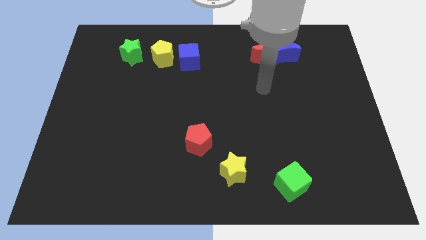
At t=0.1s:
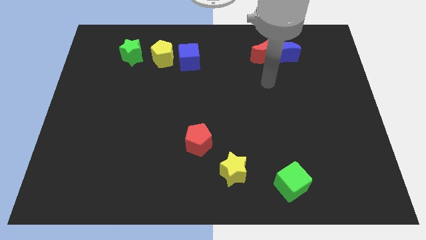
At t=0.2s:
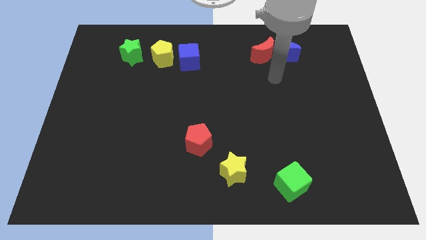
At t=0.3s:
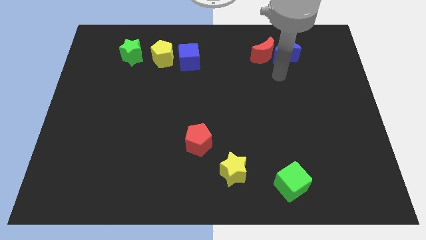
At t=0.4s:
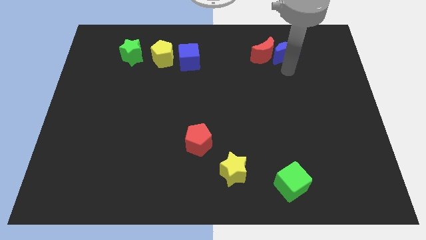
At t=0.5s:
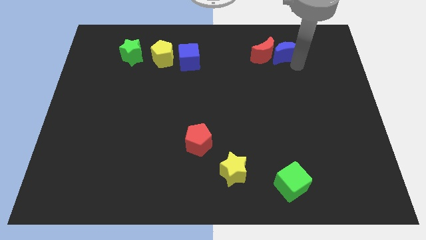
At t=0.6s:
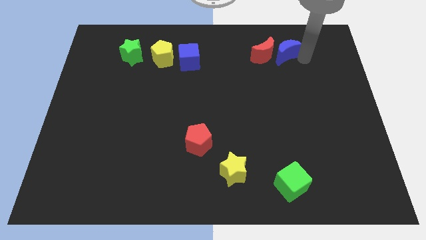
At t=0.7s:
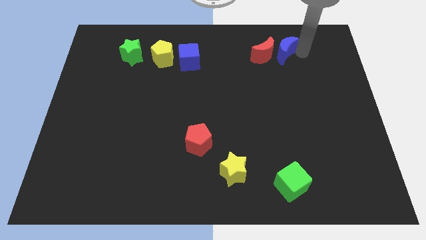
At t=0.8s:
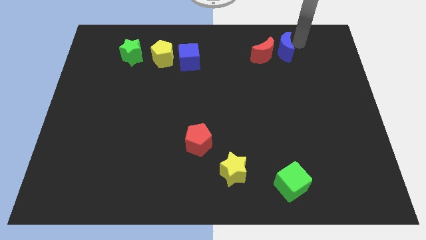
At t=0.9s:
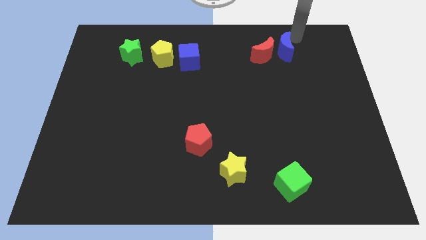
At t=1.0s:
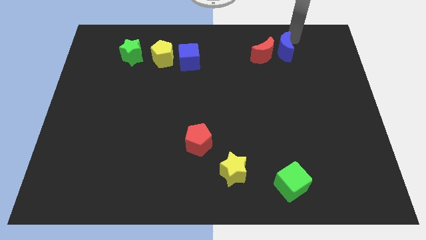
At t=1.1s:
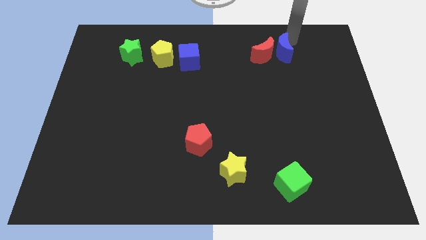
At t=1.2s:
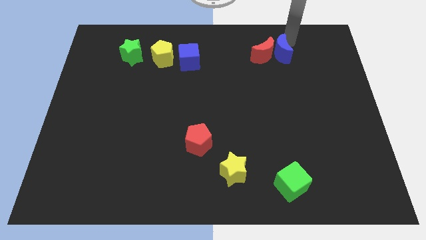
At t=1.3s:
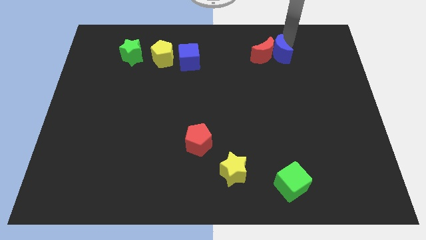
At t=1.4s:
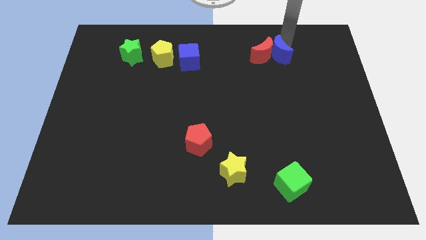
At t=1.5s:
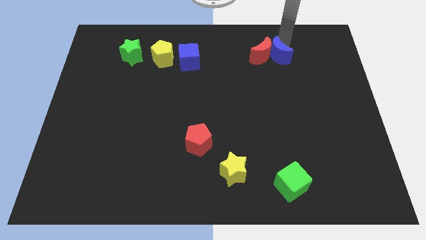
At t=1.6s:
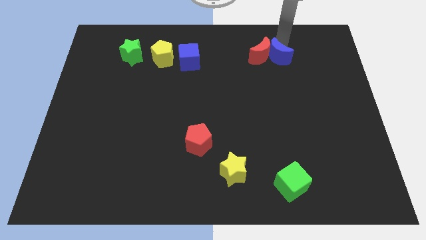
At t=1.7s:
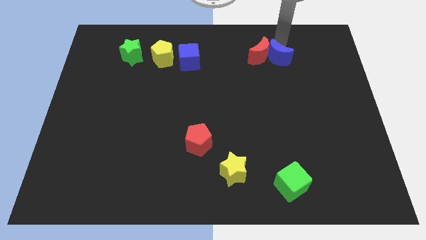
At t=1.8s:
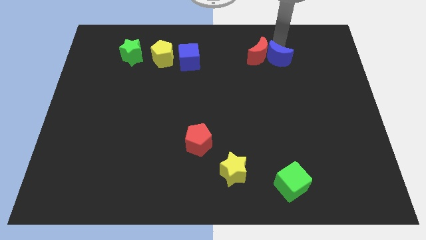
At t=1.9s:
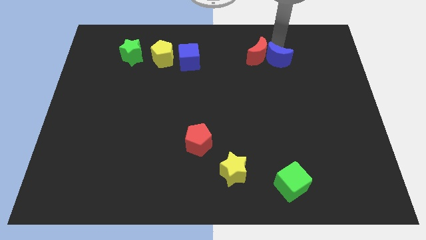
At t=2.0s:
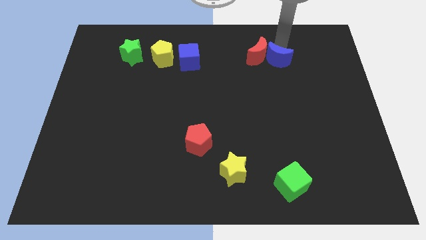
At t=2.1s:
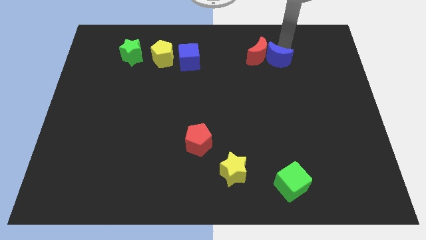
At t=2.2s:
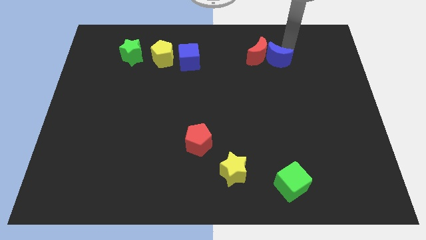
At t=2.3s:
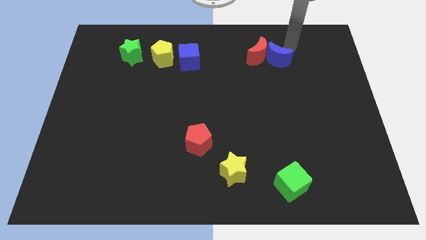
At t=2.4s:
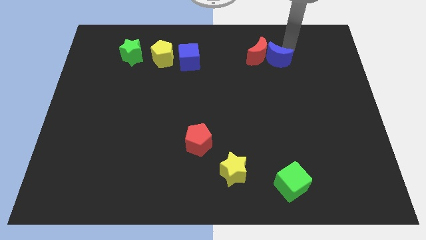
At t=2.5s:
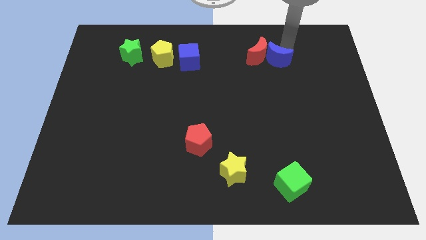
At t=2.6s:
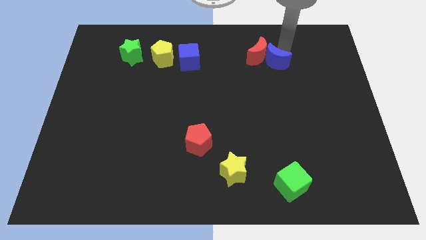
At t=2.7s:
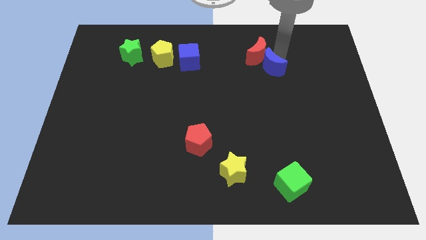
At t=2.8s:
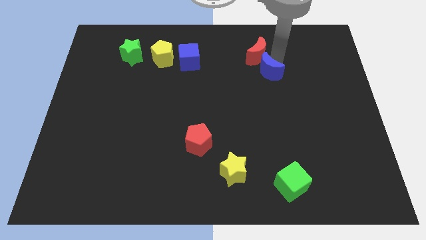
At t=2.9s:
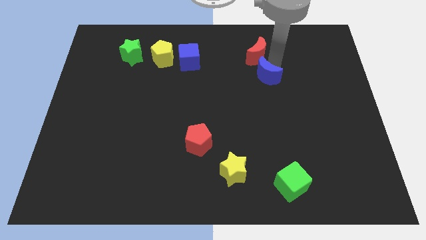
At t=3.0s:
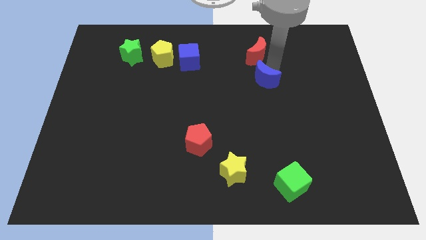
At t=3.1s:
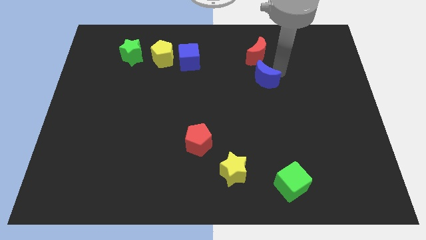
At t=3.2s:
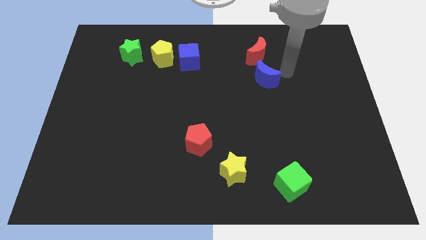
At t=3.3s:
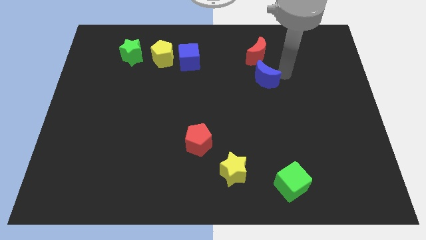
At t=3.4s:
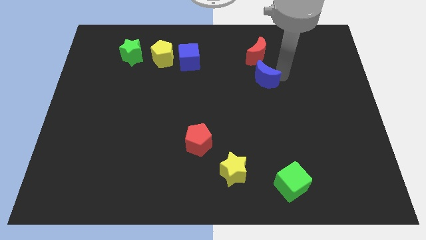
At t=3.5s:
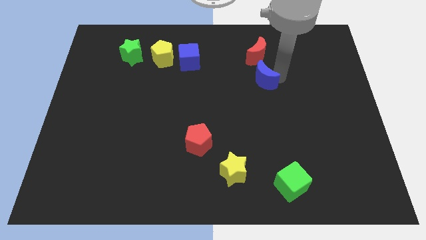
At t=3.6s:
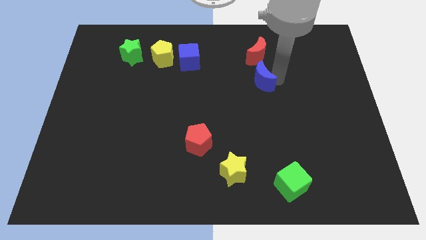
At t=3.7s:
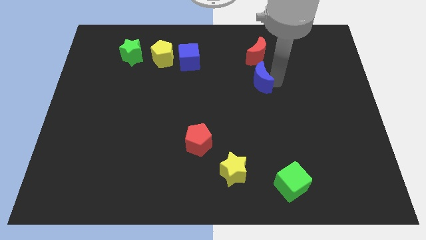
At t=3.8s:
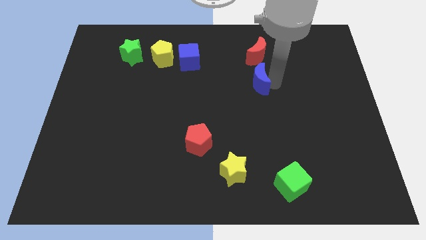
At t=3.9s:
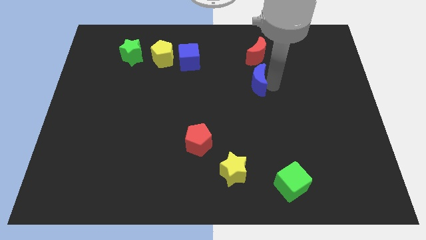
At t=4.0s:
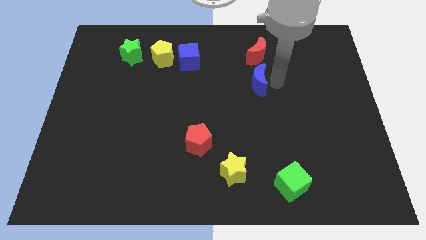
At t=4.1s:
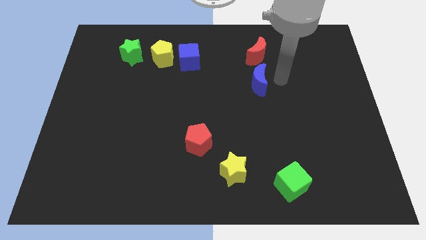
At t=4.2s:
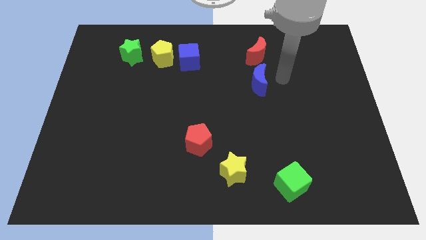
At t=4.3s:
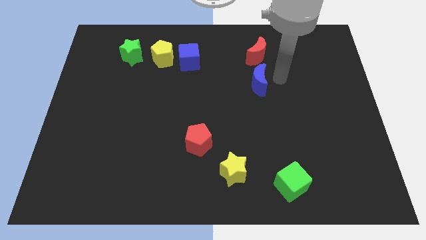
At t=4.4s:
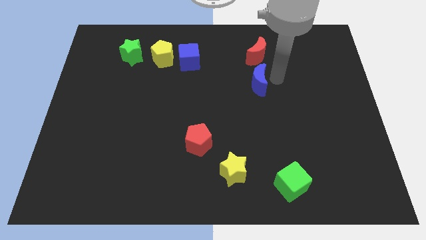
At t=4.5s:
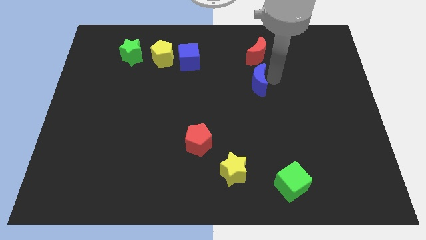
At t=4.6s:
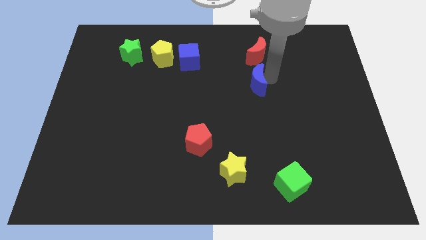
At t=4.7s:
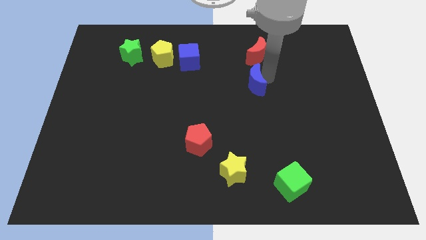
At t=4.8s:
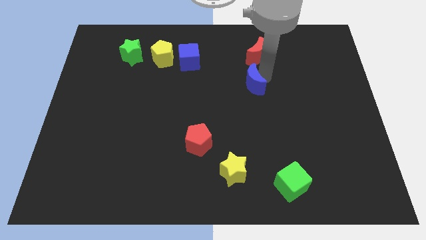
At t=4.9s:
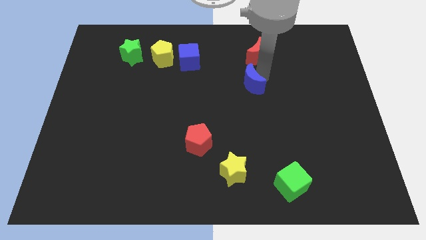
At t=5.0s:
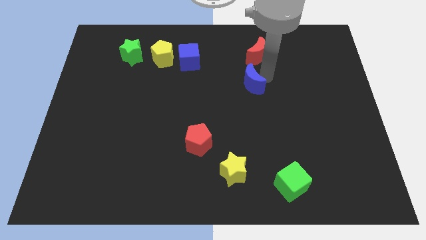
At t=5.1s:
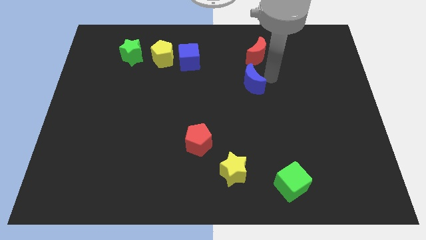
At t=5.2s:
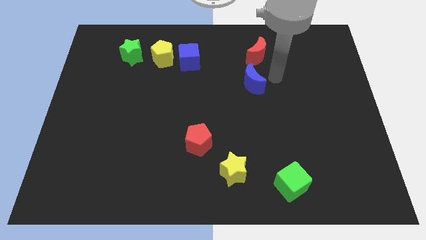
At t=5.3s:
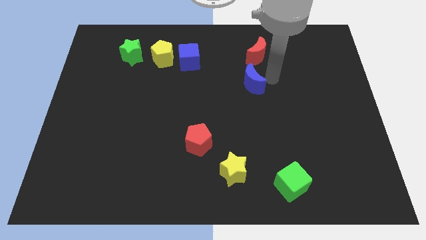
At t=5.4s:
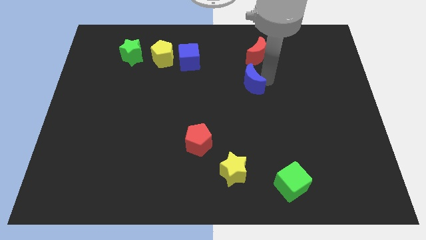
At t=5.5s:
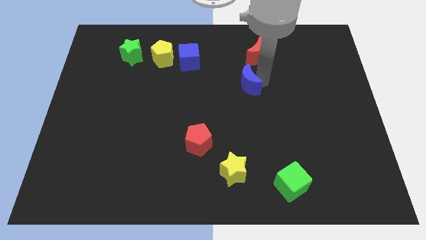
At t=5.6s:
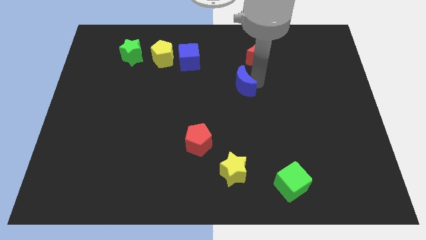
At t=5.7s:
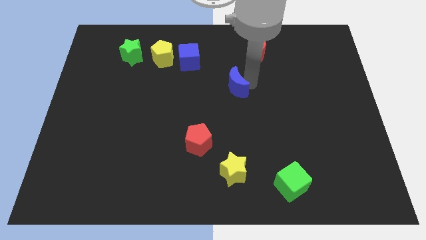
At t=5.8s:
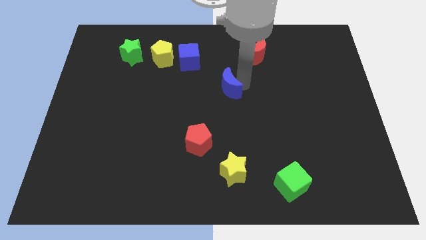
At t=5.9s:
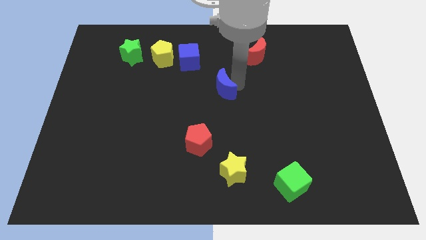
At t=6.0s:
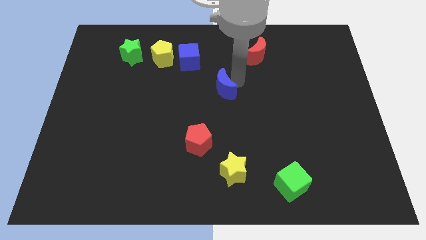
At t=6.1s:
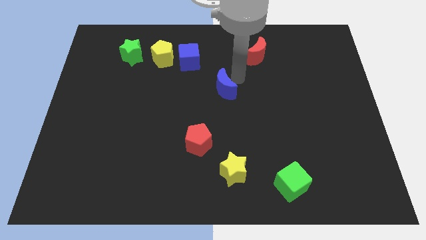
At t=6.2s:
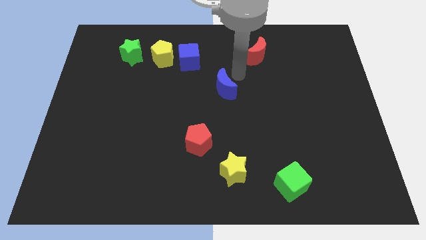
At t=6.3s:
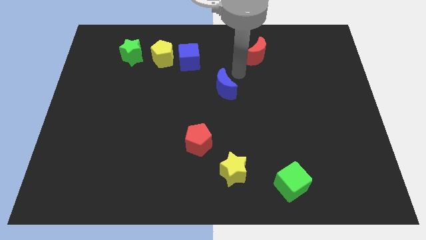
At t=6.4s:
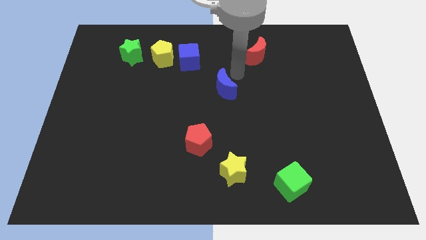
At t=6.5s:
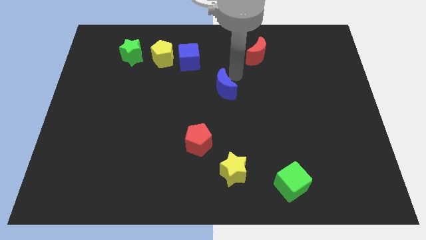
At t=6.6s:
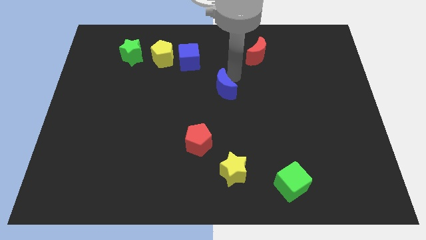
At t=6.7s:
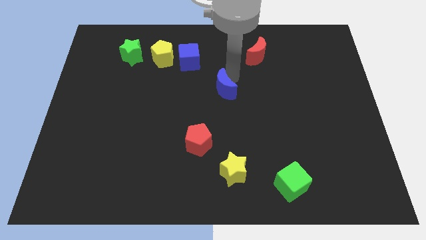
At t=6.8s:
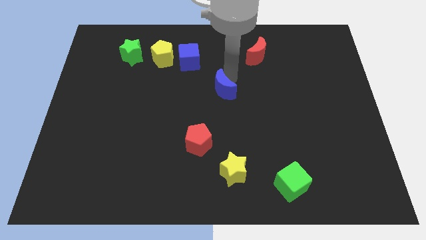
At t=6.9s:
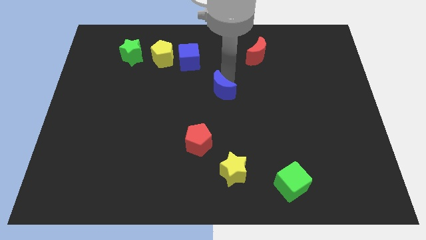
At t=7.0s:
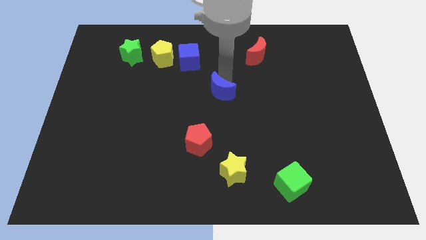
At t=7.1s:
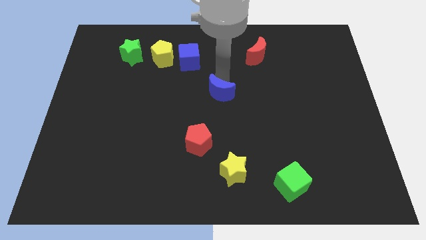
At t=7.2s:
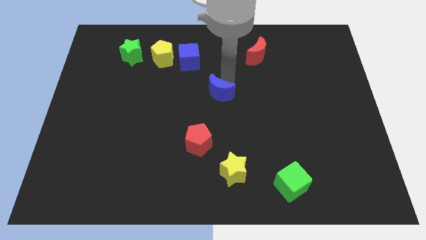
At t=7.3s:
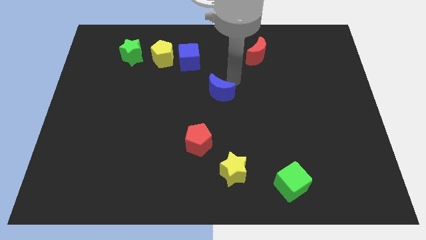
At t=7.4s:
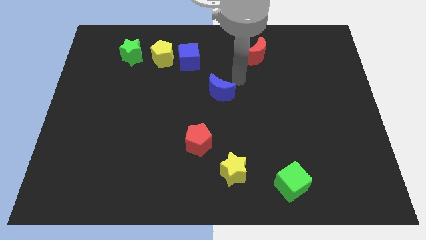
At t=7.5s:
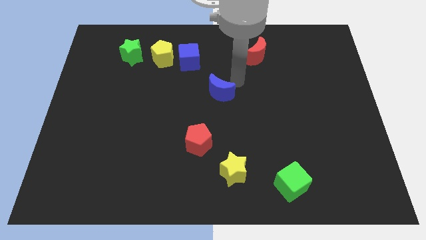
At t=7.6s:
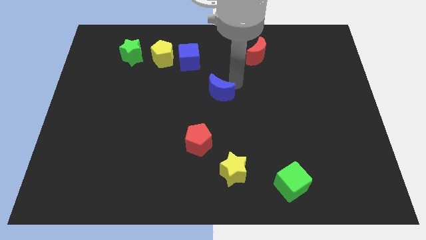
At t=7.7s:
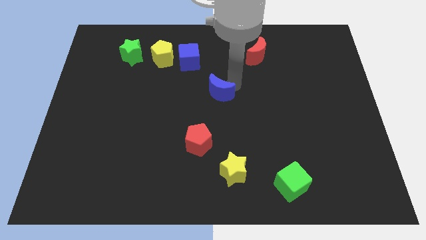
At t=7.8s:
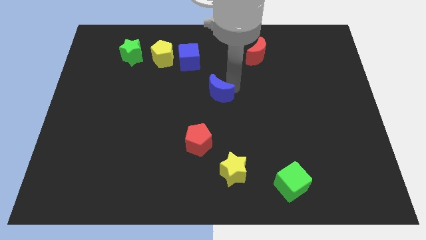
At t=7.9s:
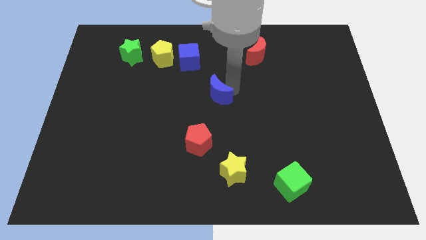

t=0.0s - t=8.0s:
move the blue moon above the red pentagon
